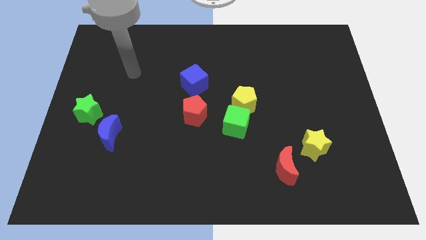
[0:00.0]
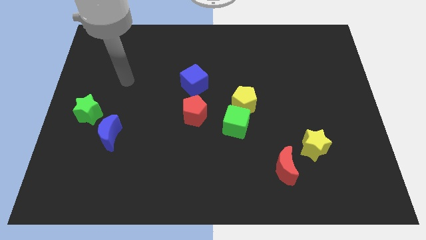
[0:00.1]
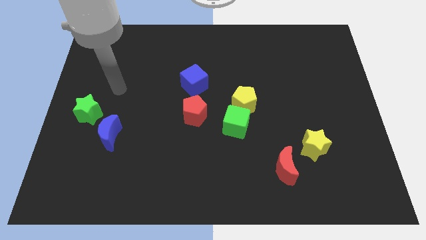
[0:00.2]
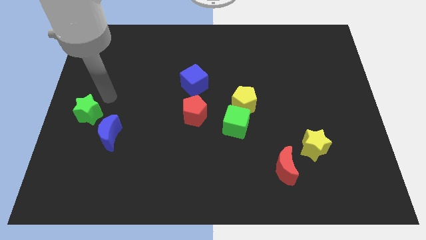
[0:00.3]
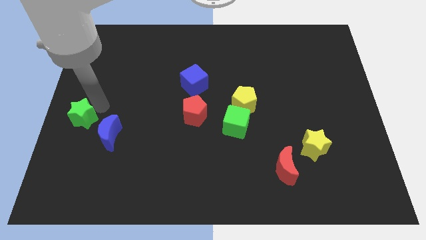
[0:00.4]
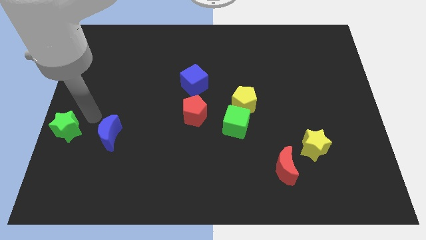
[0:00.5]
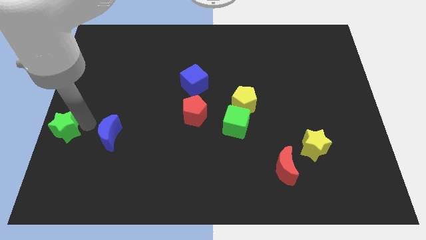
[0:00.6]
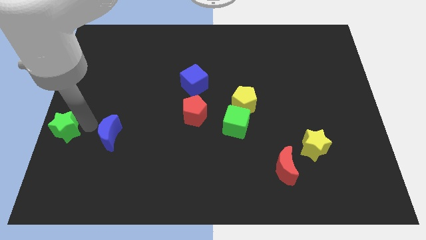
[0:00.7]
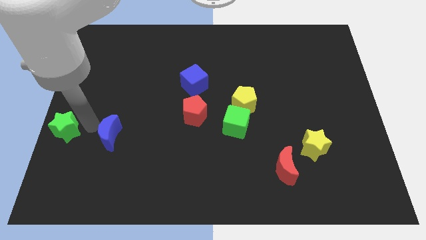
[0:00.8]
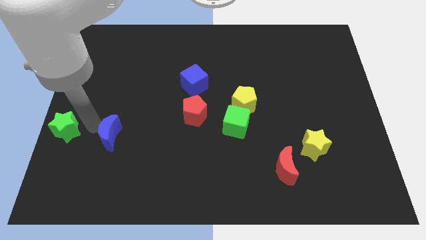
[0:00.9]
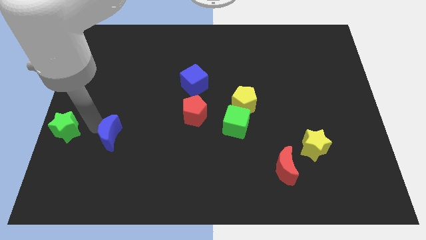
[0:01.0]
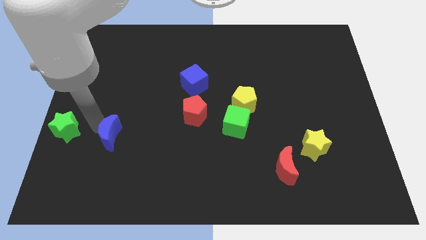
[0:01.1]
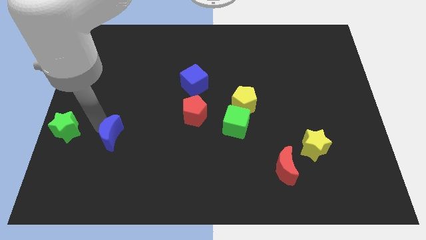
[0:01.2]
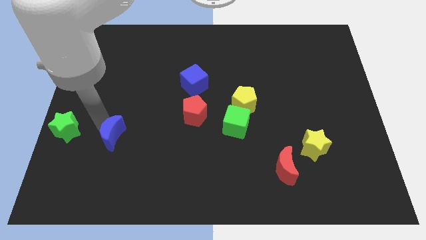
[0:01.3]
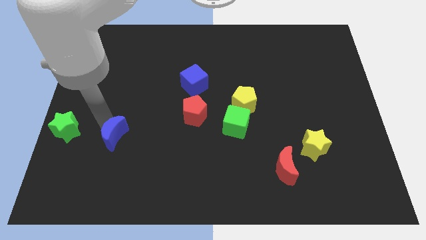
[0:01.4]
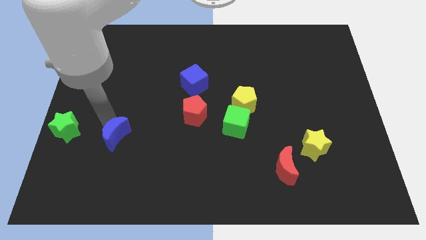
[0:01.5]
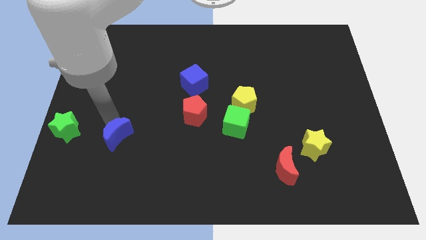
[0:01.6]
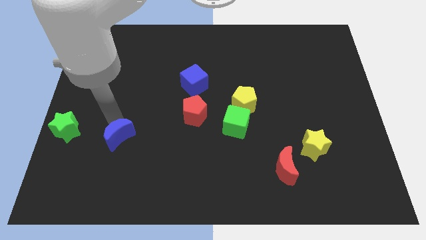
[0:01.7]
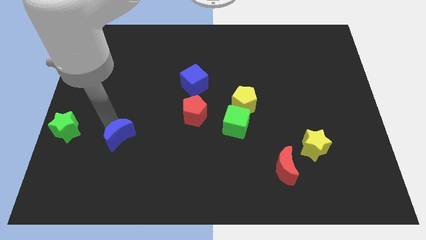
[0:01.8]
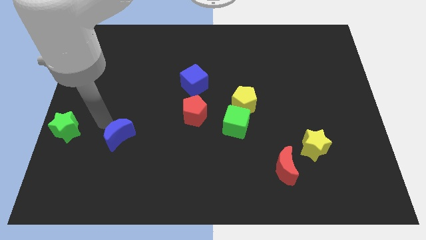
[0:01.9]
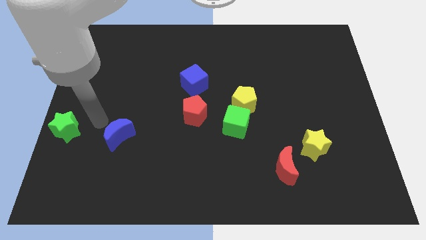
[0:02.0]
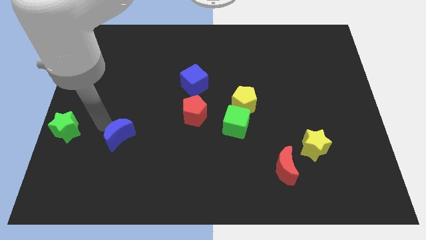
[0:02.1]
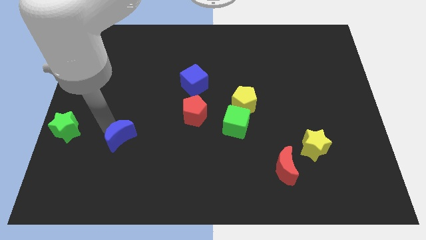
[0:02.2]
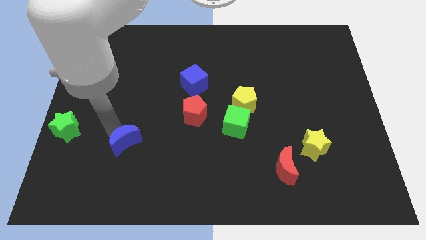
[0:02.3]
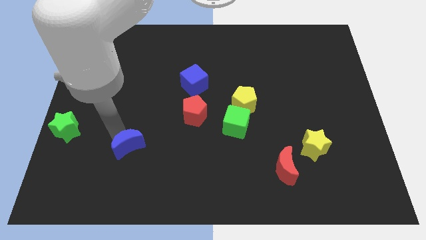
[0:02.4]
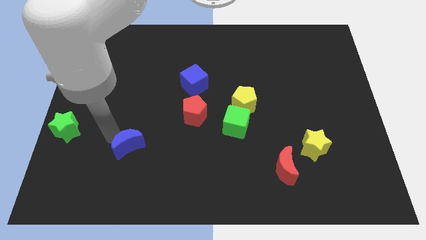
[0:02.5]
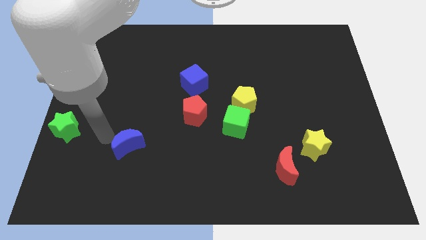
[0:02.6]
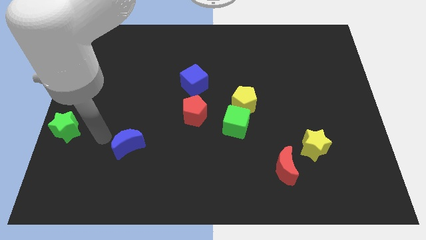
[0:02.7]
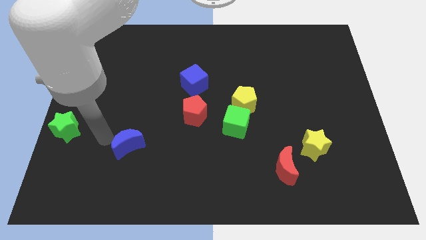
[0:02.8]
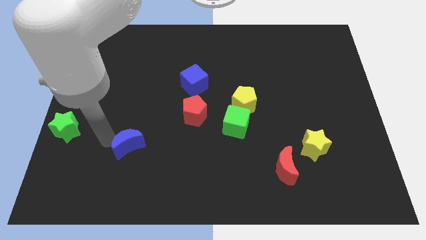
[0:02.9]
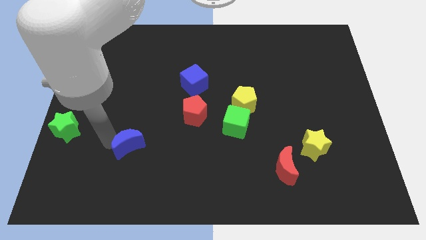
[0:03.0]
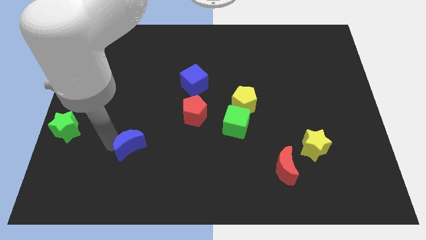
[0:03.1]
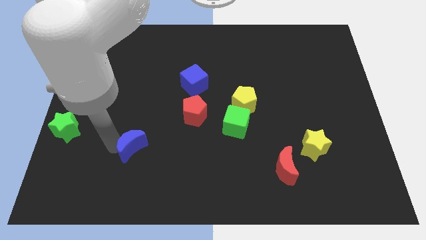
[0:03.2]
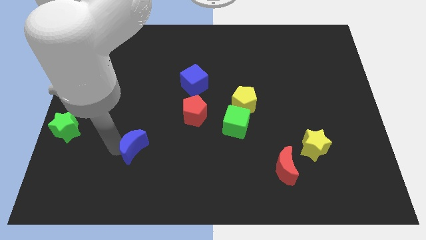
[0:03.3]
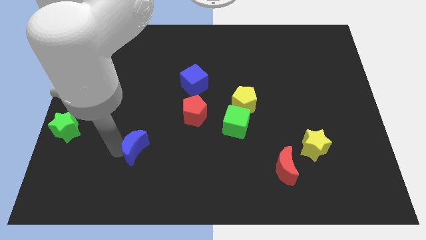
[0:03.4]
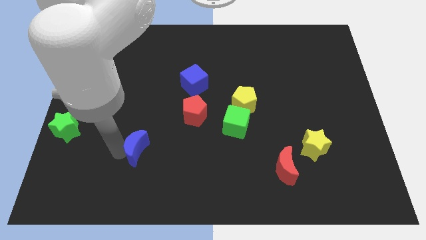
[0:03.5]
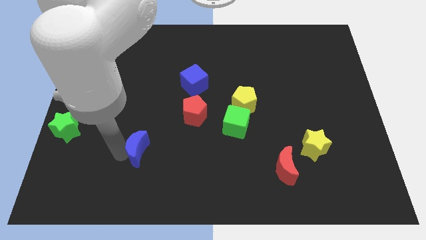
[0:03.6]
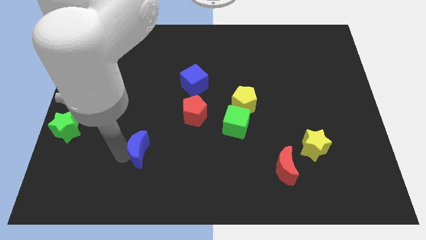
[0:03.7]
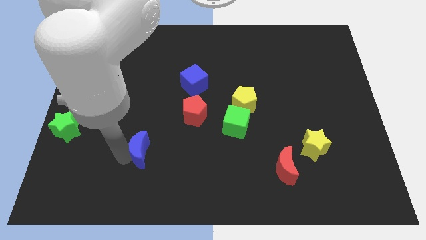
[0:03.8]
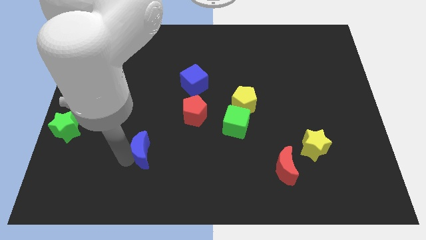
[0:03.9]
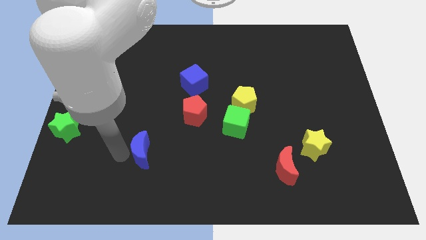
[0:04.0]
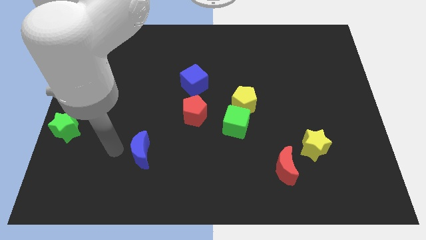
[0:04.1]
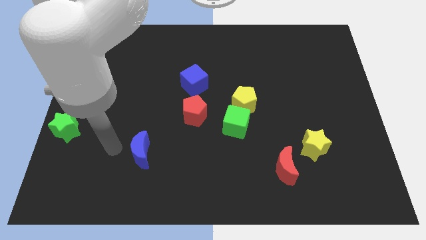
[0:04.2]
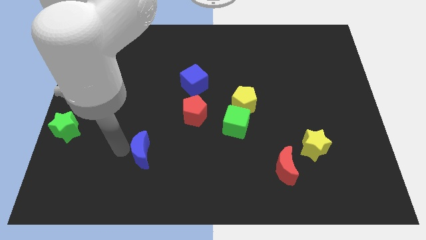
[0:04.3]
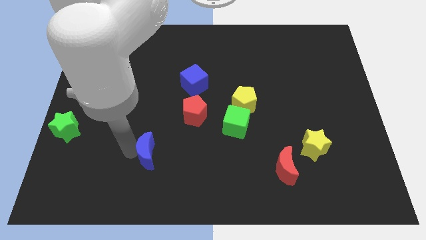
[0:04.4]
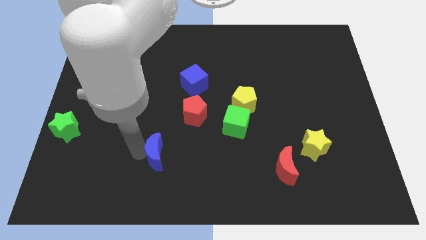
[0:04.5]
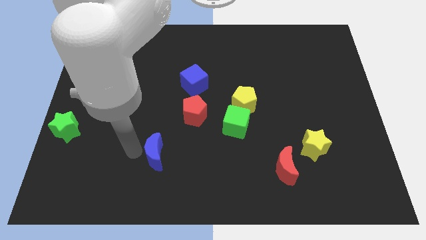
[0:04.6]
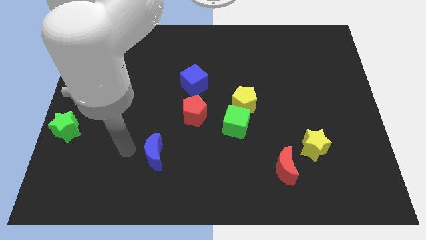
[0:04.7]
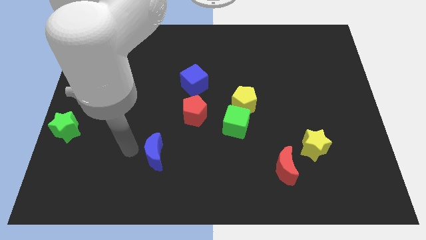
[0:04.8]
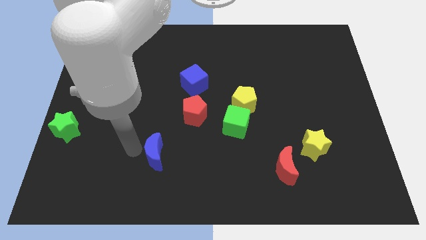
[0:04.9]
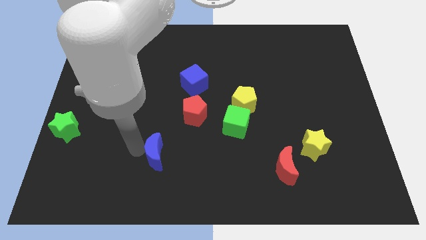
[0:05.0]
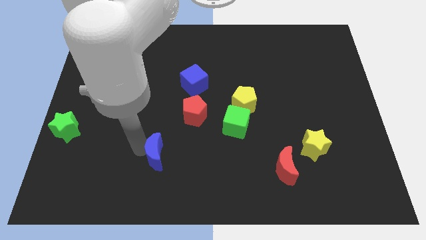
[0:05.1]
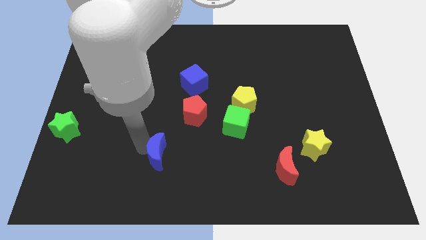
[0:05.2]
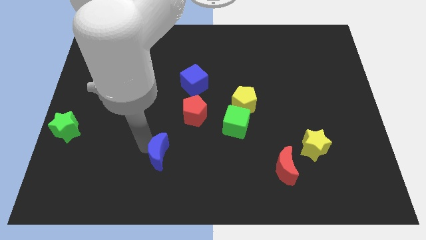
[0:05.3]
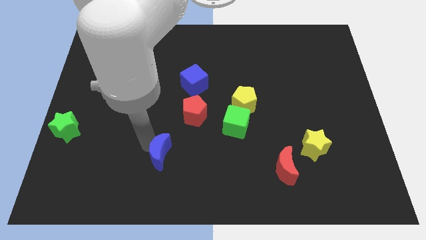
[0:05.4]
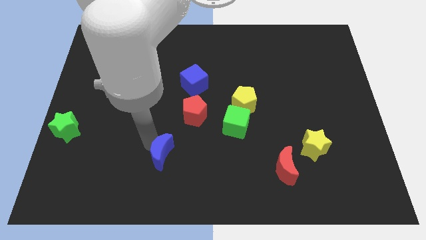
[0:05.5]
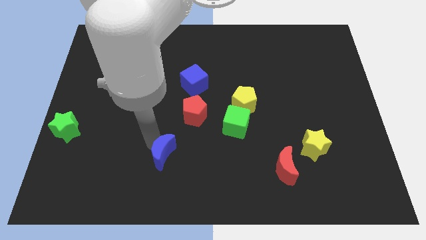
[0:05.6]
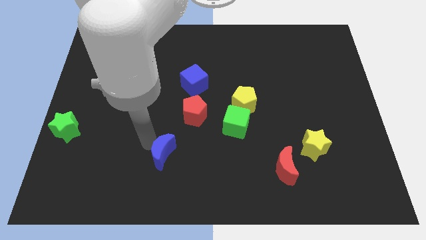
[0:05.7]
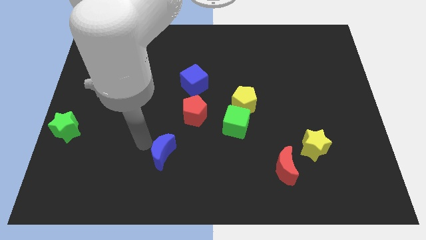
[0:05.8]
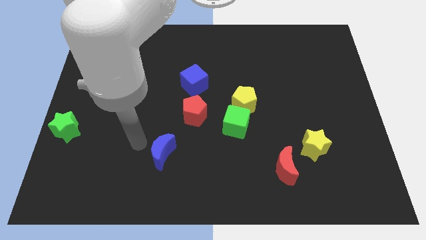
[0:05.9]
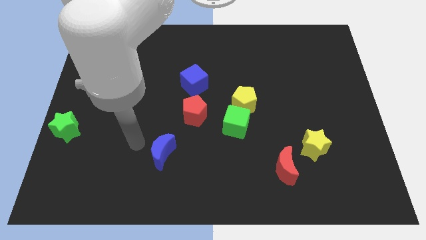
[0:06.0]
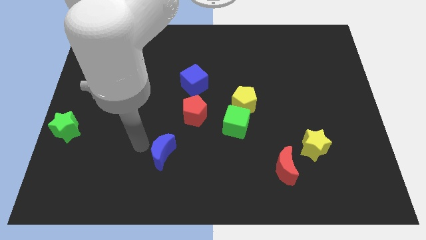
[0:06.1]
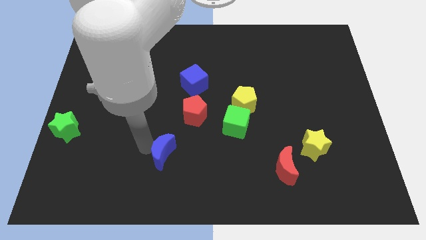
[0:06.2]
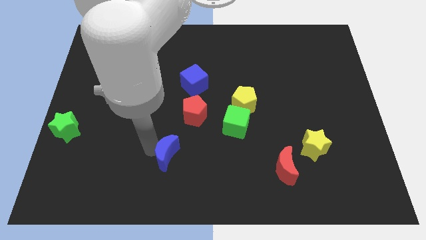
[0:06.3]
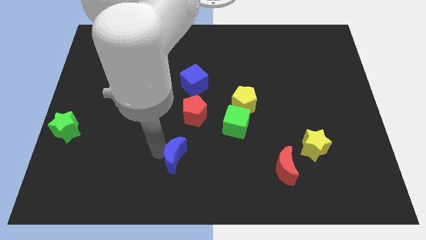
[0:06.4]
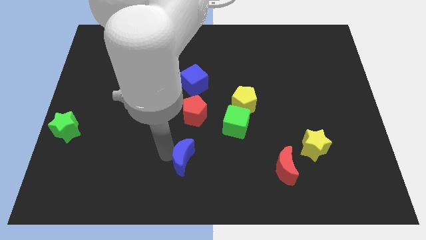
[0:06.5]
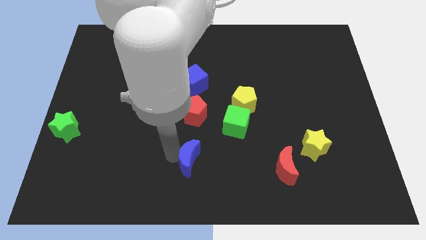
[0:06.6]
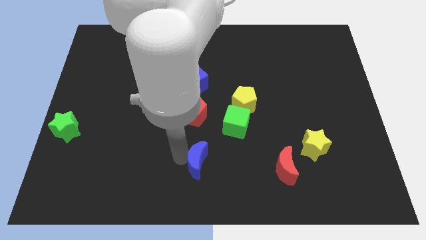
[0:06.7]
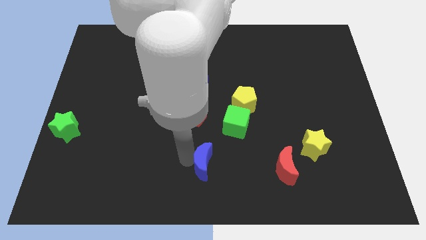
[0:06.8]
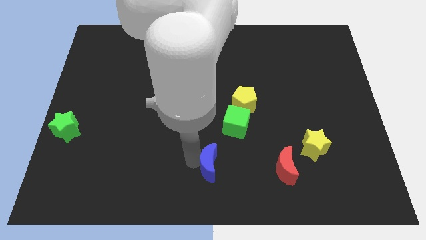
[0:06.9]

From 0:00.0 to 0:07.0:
slide the blue moon to the left of the red moon
